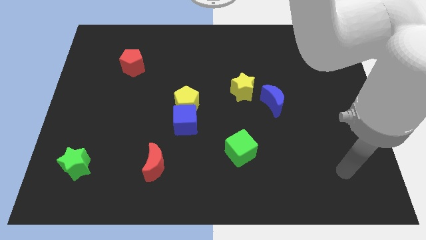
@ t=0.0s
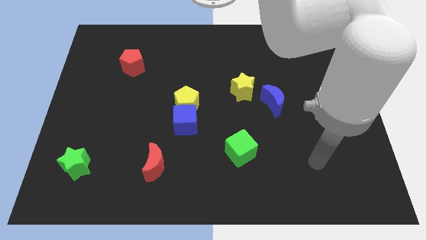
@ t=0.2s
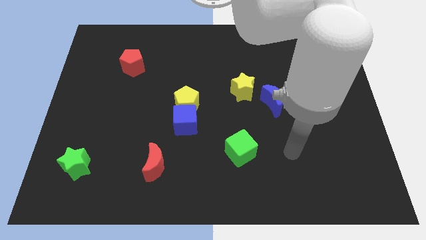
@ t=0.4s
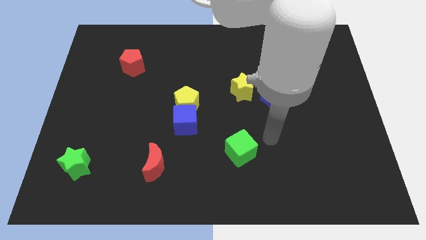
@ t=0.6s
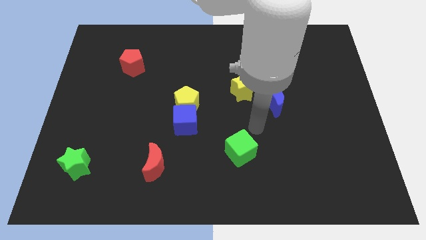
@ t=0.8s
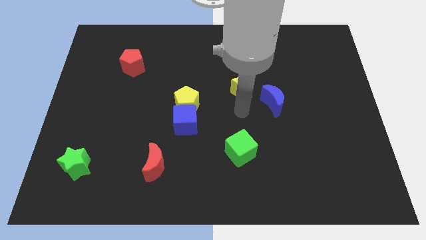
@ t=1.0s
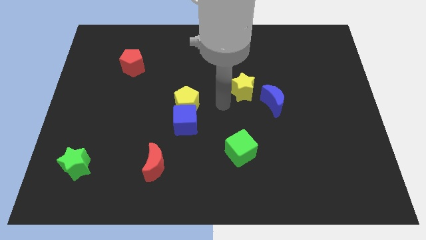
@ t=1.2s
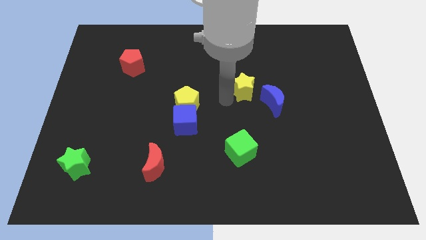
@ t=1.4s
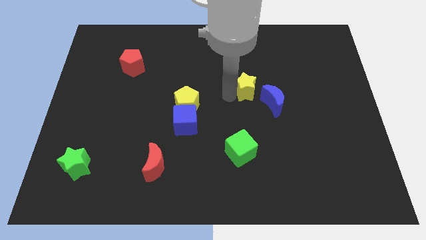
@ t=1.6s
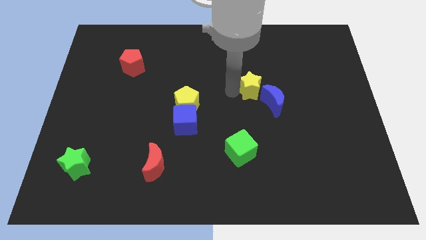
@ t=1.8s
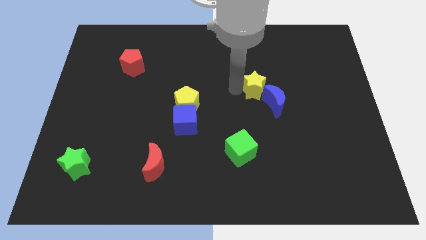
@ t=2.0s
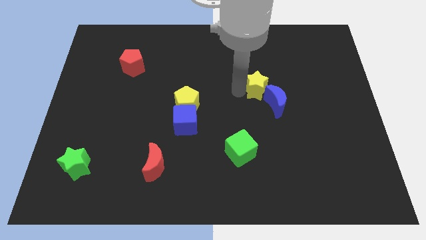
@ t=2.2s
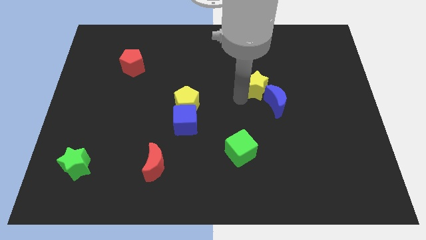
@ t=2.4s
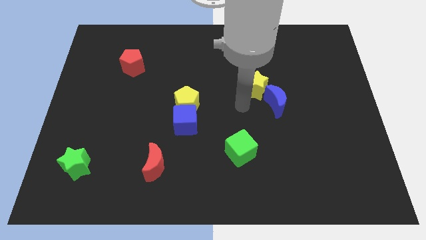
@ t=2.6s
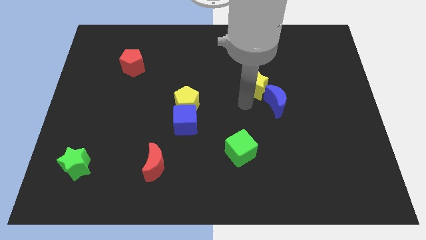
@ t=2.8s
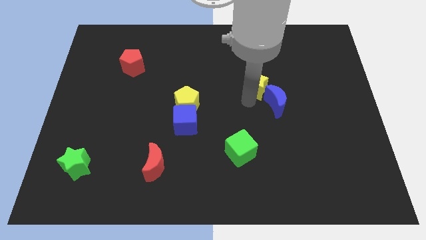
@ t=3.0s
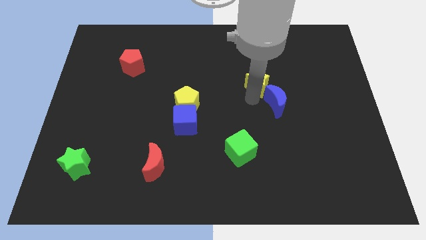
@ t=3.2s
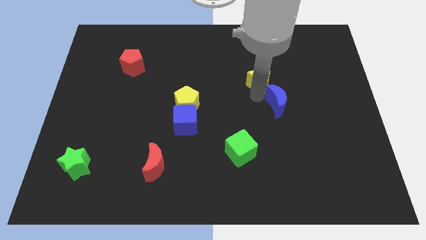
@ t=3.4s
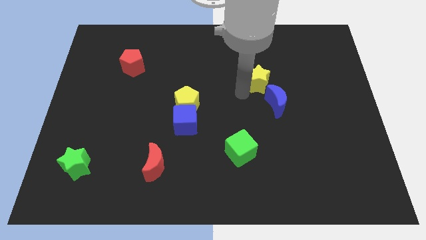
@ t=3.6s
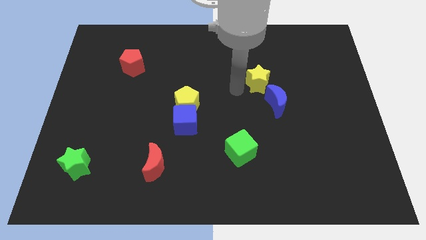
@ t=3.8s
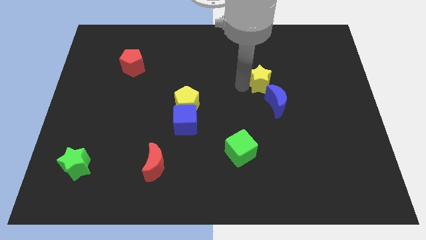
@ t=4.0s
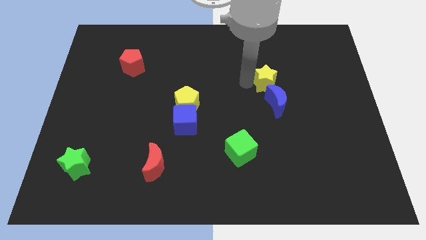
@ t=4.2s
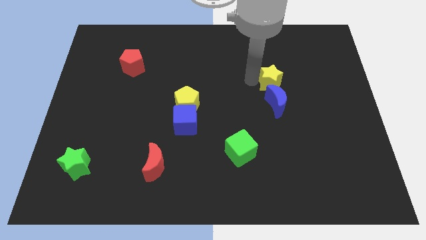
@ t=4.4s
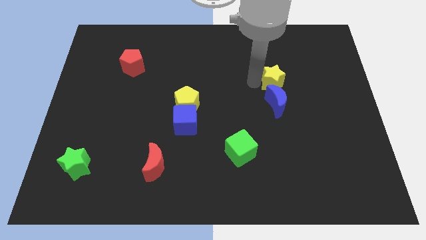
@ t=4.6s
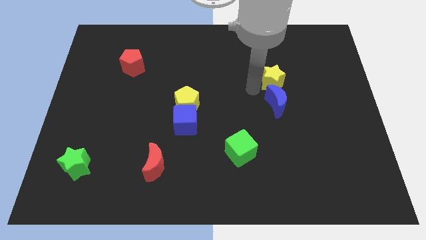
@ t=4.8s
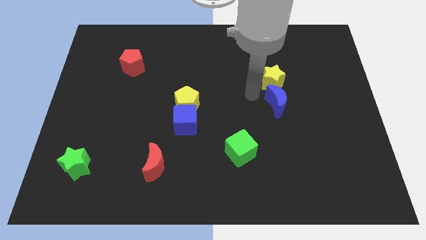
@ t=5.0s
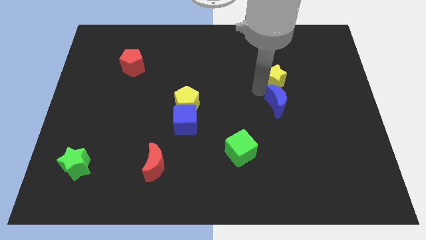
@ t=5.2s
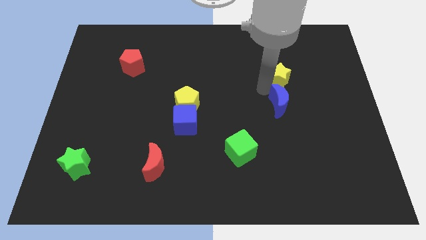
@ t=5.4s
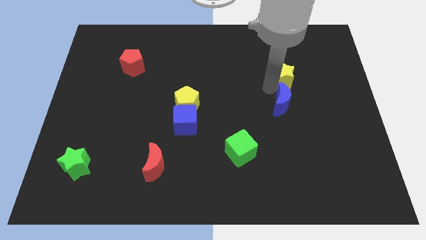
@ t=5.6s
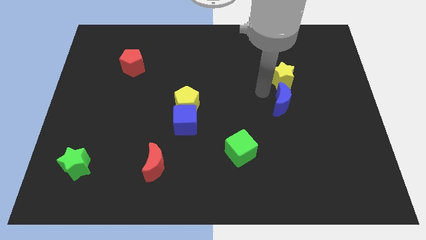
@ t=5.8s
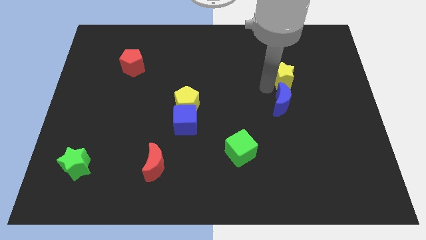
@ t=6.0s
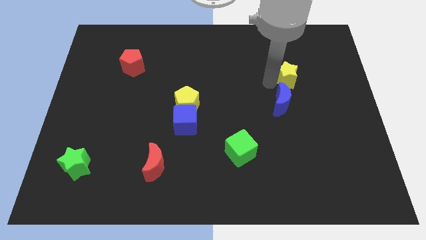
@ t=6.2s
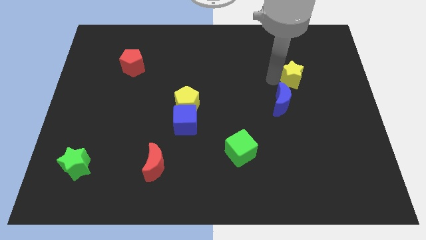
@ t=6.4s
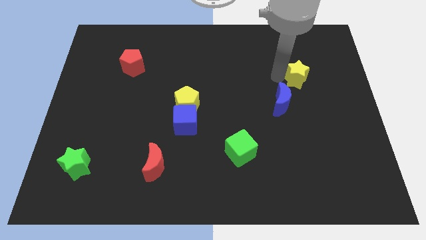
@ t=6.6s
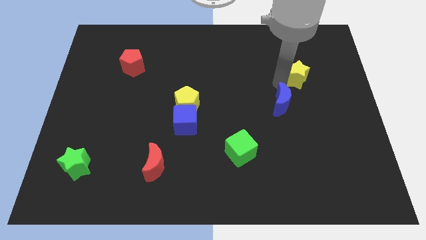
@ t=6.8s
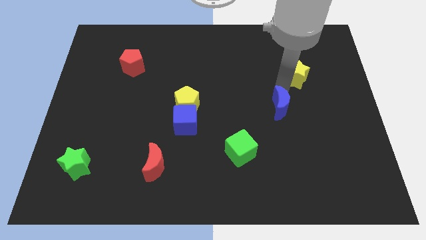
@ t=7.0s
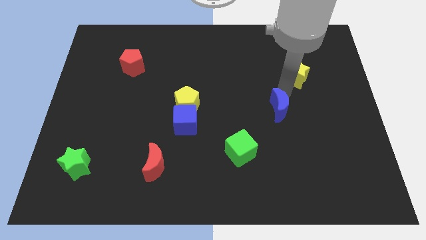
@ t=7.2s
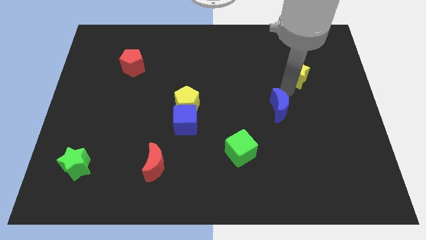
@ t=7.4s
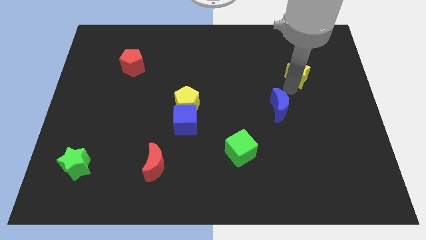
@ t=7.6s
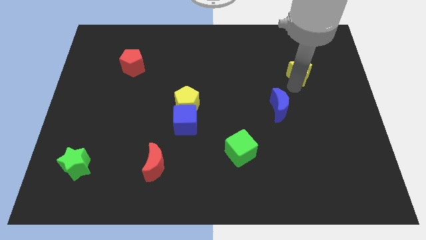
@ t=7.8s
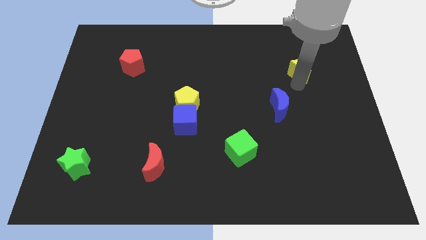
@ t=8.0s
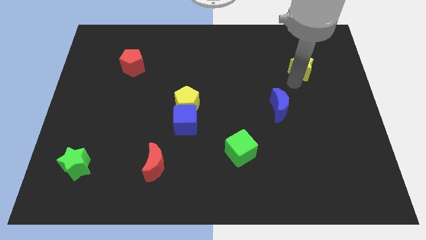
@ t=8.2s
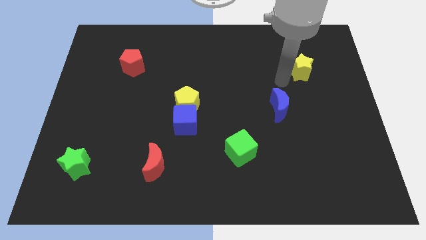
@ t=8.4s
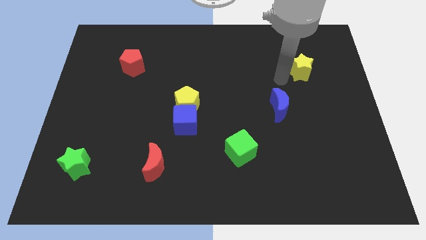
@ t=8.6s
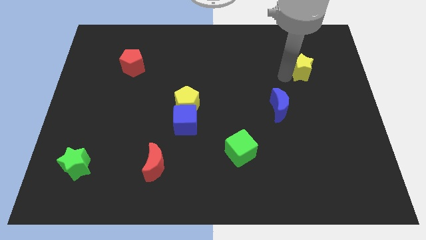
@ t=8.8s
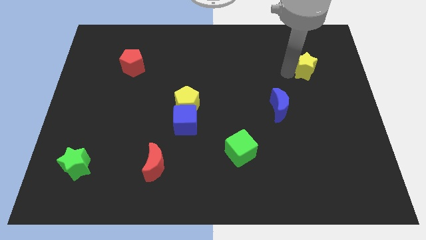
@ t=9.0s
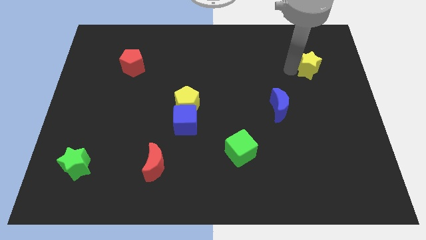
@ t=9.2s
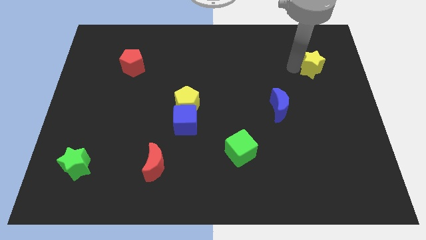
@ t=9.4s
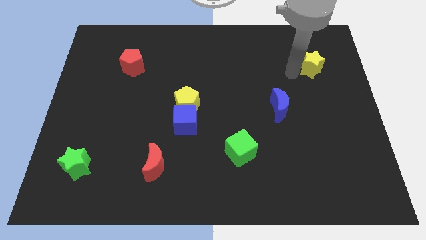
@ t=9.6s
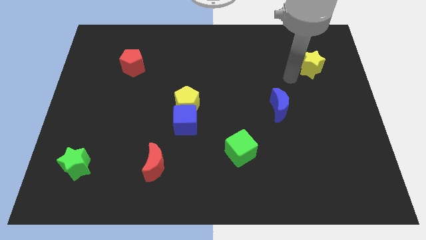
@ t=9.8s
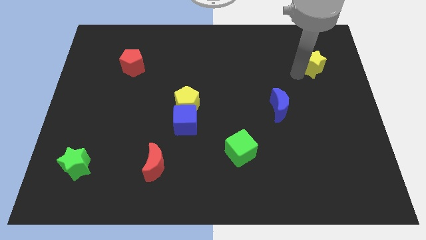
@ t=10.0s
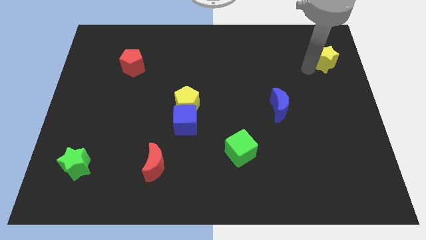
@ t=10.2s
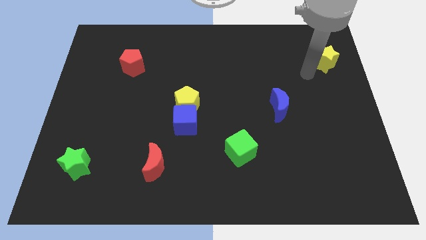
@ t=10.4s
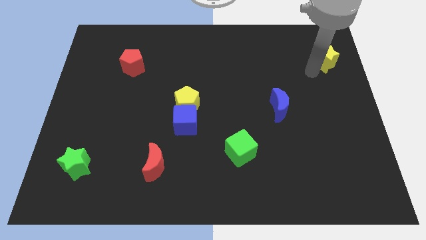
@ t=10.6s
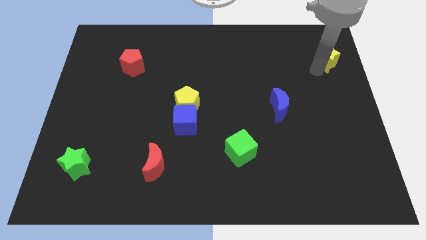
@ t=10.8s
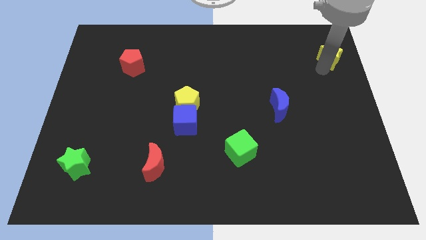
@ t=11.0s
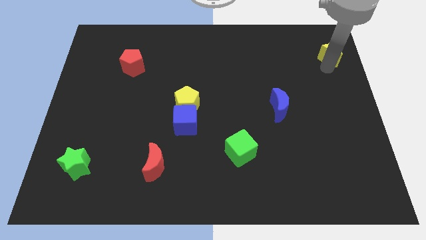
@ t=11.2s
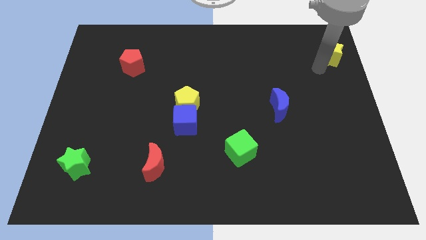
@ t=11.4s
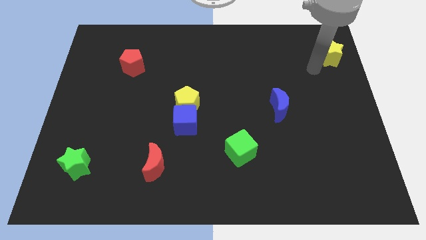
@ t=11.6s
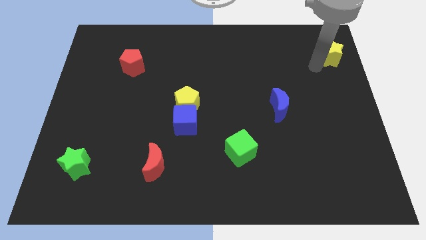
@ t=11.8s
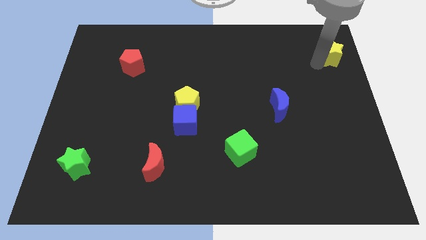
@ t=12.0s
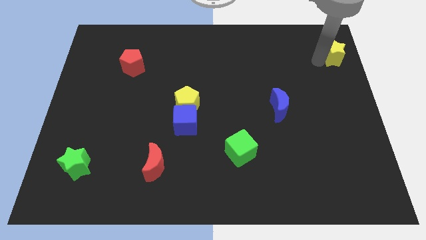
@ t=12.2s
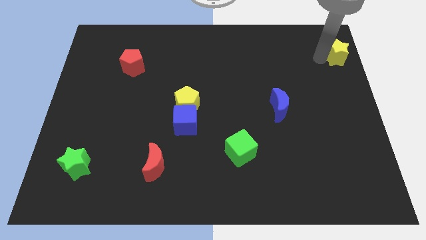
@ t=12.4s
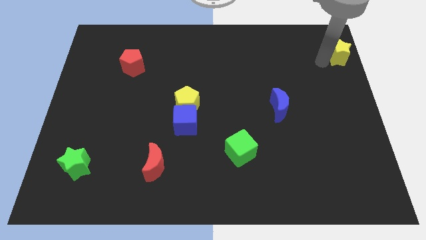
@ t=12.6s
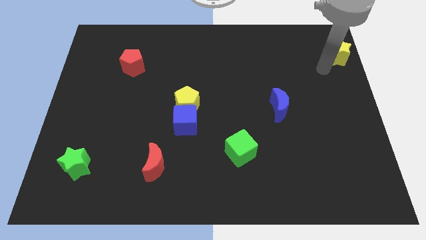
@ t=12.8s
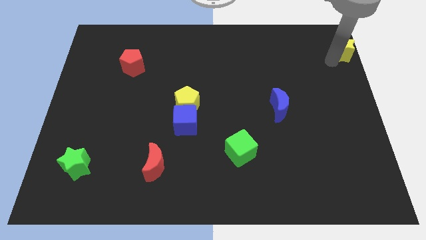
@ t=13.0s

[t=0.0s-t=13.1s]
move the yellow star to the upper right corner

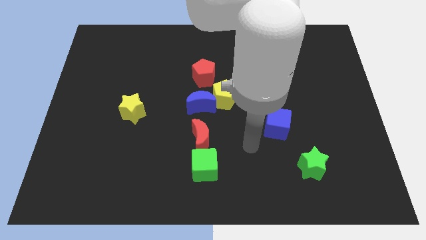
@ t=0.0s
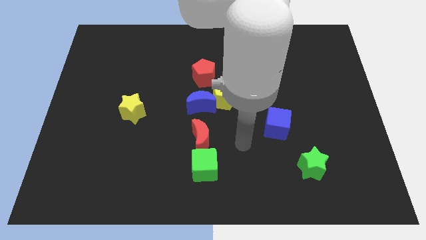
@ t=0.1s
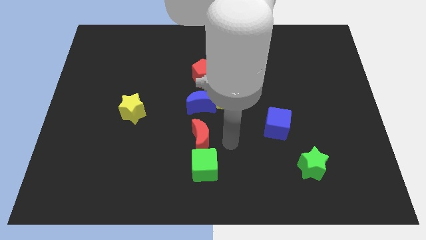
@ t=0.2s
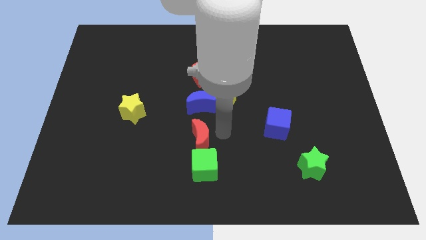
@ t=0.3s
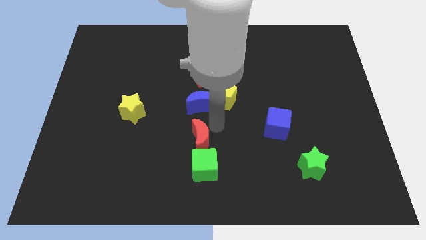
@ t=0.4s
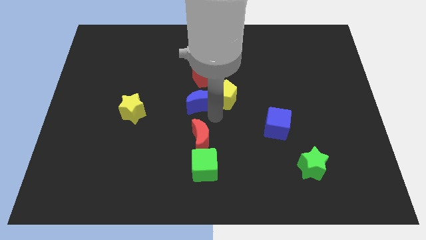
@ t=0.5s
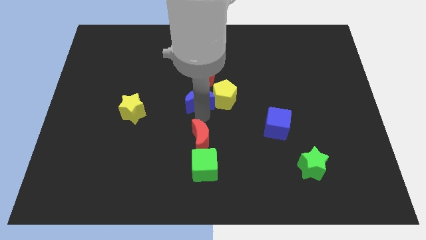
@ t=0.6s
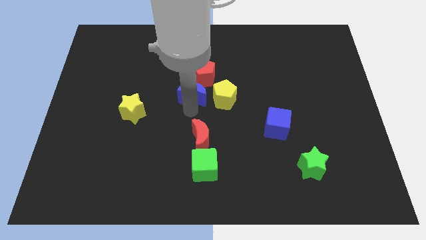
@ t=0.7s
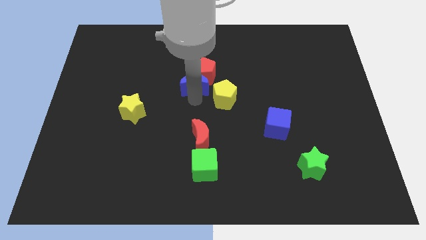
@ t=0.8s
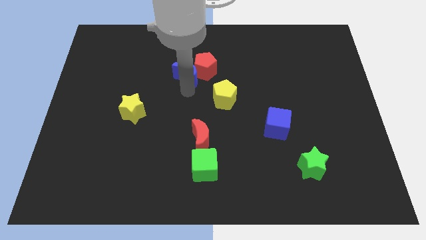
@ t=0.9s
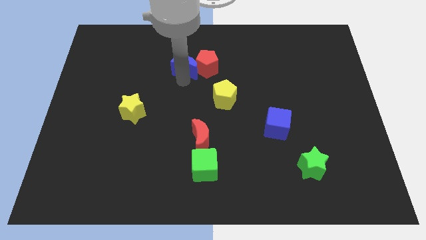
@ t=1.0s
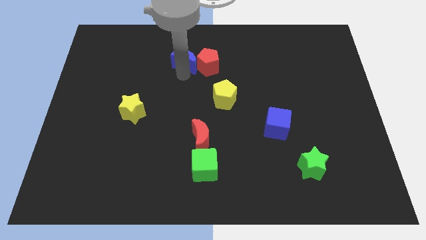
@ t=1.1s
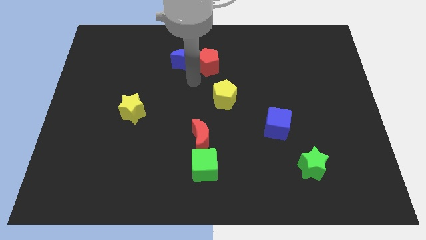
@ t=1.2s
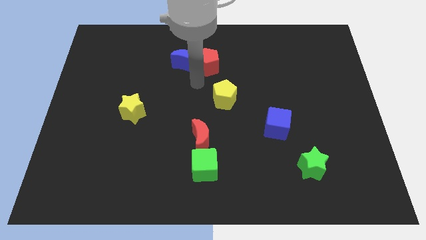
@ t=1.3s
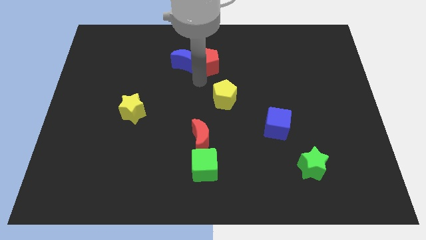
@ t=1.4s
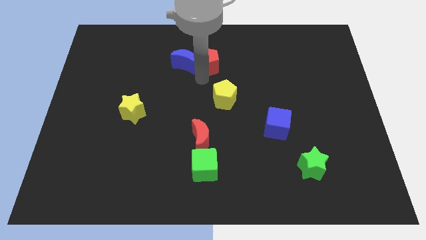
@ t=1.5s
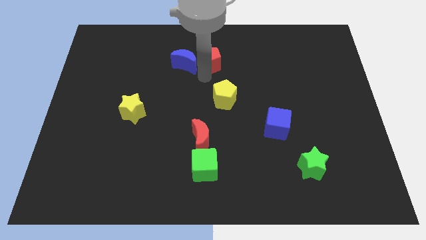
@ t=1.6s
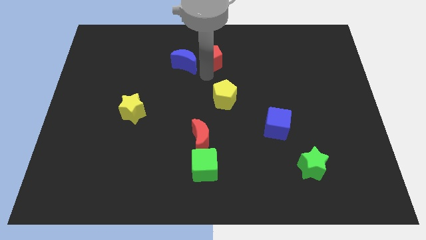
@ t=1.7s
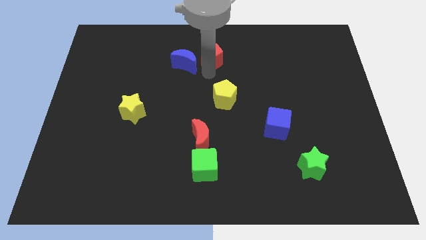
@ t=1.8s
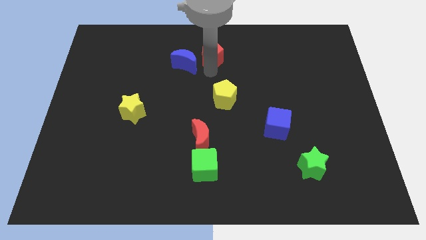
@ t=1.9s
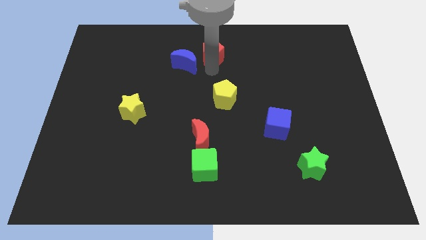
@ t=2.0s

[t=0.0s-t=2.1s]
move the red pentagon to the top
